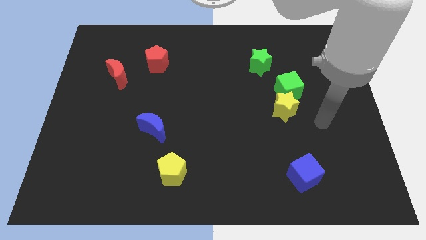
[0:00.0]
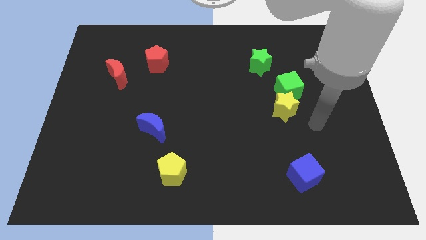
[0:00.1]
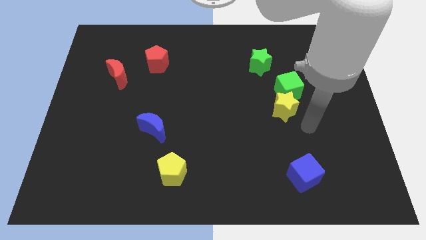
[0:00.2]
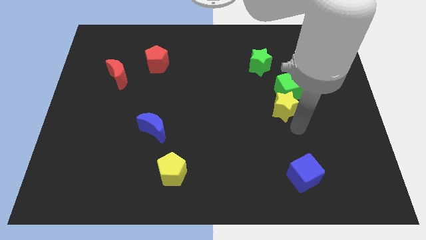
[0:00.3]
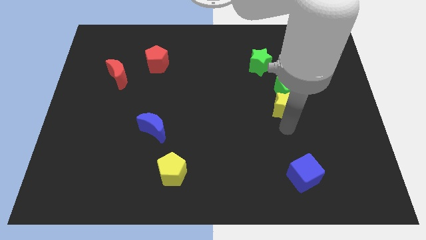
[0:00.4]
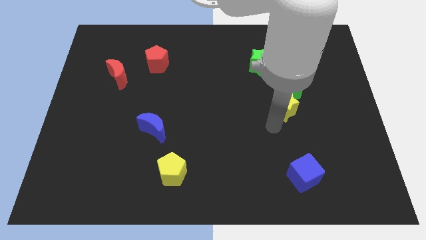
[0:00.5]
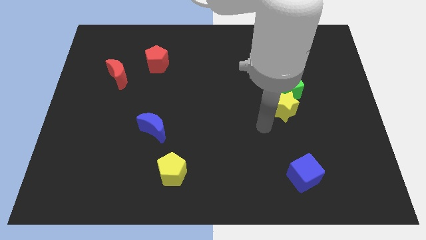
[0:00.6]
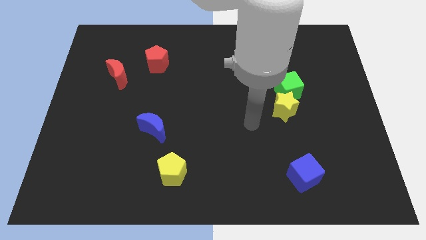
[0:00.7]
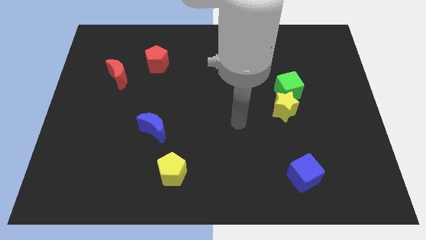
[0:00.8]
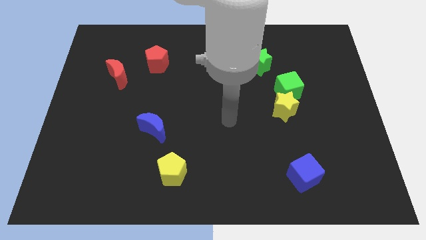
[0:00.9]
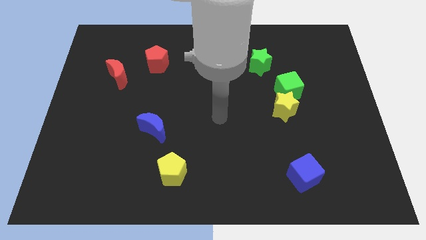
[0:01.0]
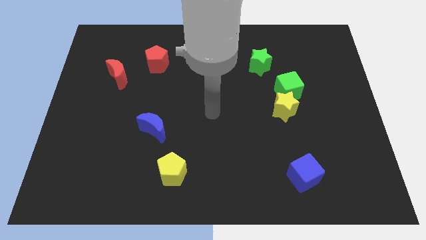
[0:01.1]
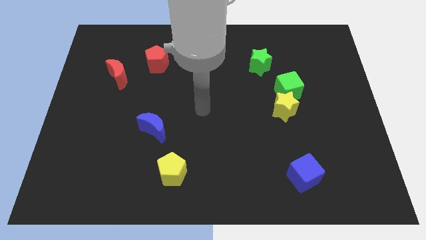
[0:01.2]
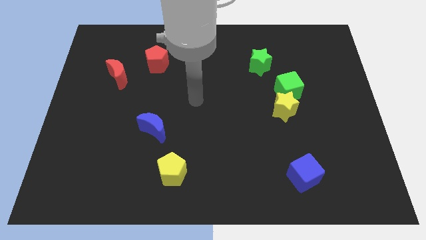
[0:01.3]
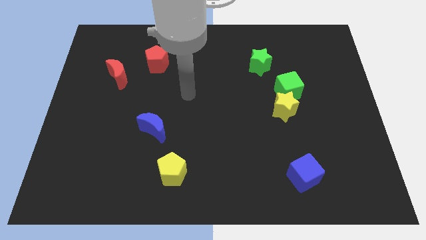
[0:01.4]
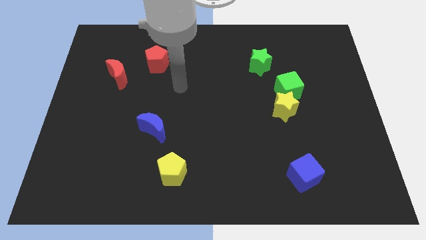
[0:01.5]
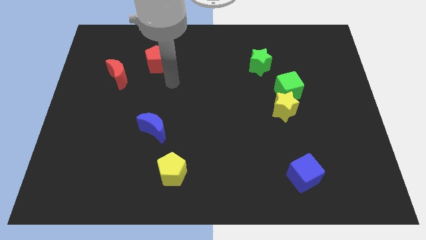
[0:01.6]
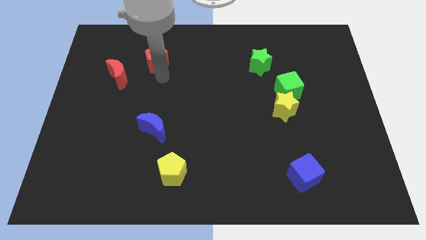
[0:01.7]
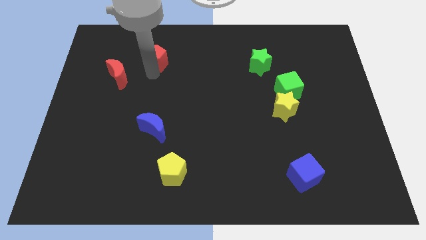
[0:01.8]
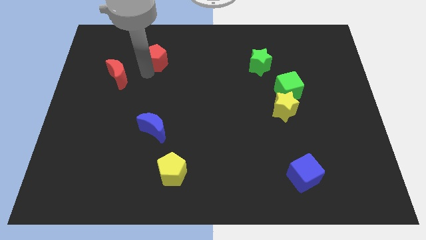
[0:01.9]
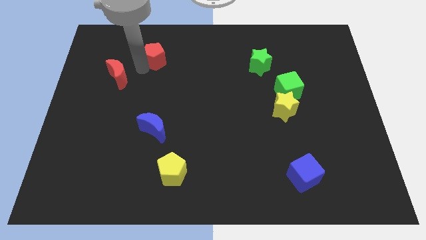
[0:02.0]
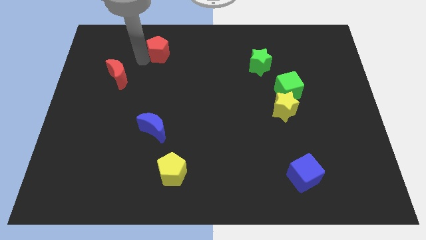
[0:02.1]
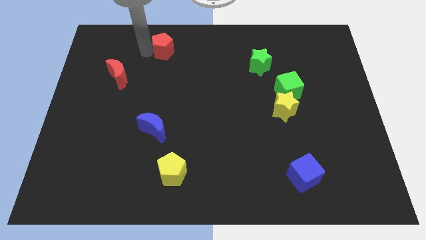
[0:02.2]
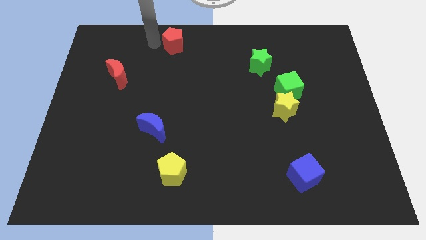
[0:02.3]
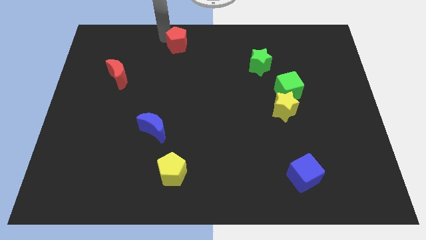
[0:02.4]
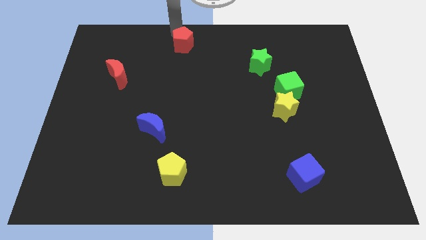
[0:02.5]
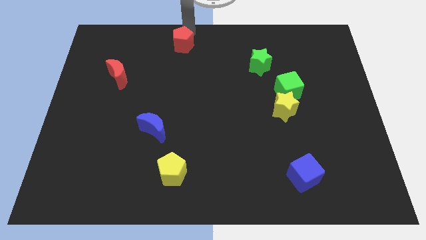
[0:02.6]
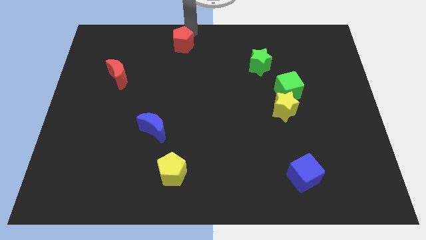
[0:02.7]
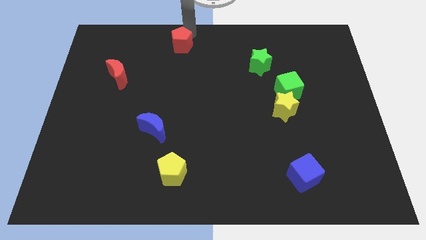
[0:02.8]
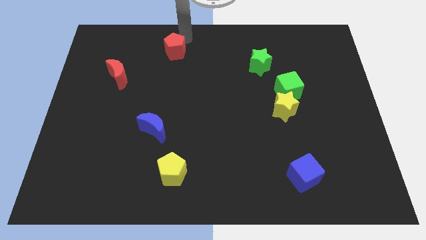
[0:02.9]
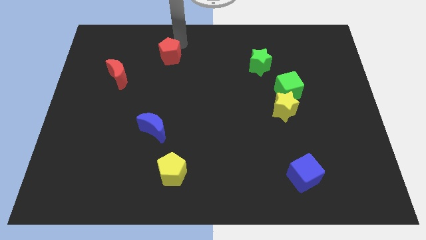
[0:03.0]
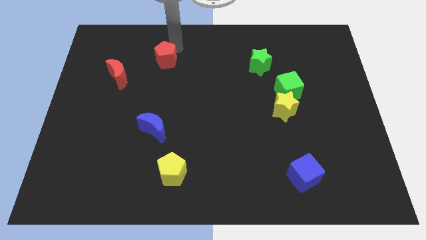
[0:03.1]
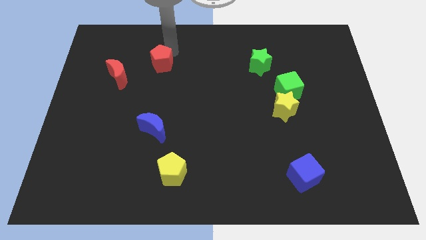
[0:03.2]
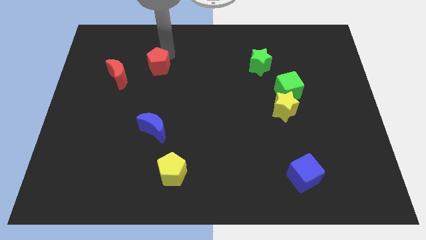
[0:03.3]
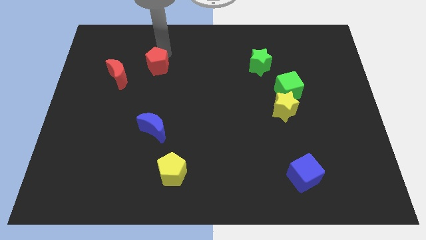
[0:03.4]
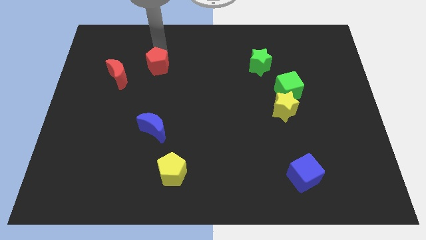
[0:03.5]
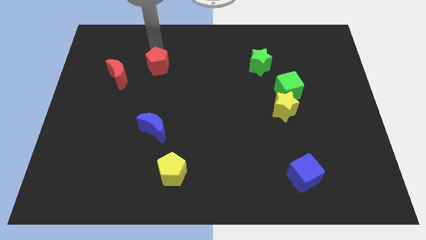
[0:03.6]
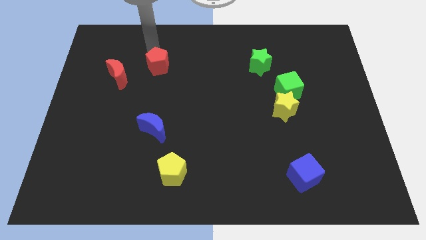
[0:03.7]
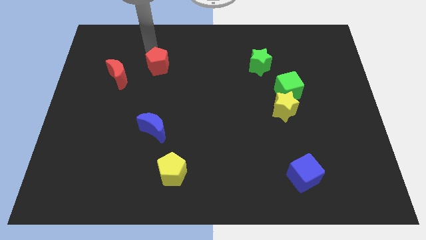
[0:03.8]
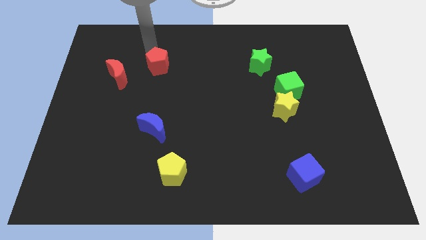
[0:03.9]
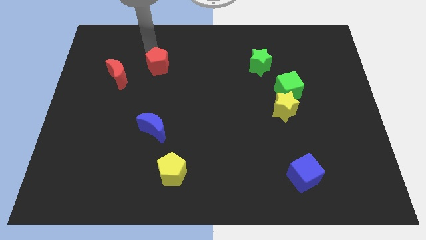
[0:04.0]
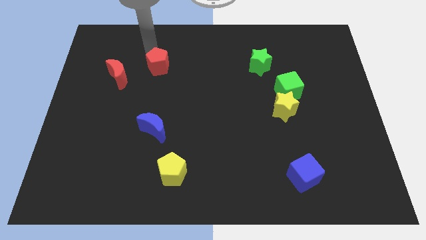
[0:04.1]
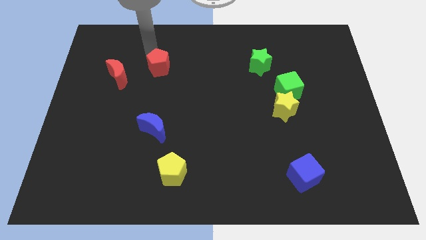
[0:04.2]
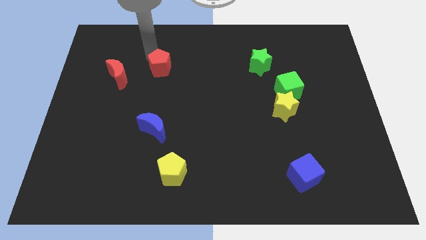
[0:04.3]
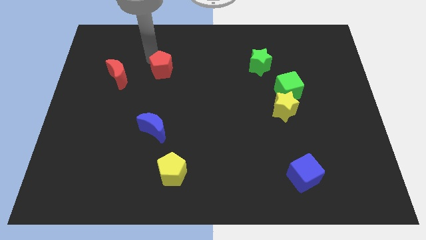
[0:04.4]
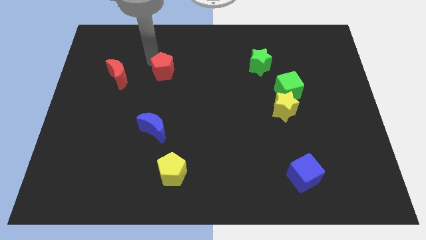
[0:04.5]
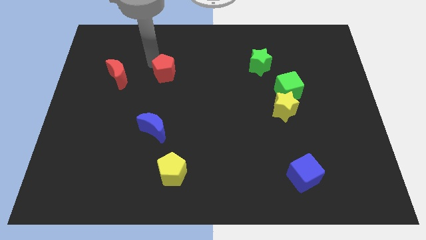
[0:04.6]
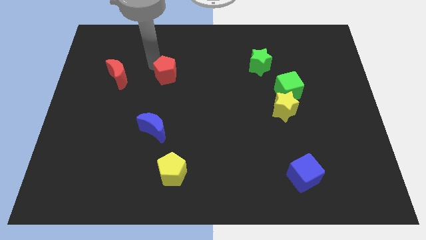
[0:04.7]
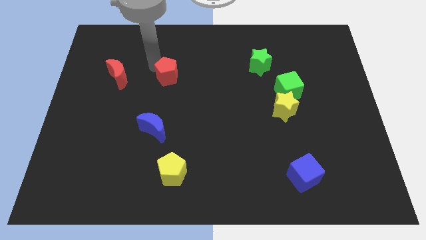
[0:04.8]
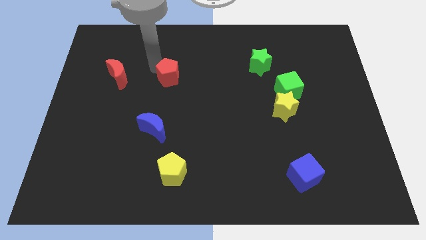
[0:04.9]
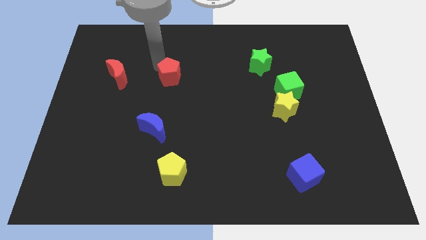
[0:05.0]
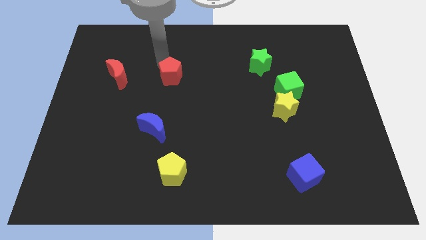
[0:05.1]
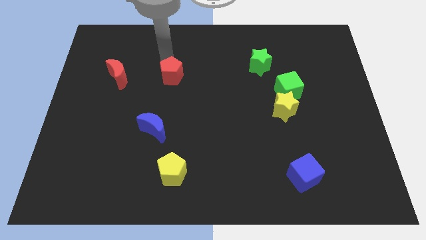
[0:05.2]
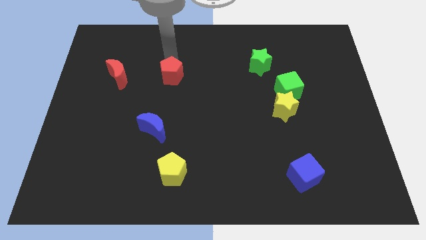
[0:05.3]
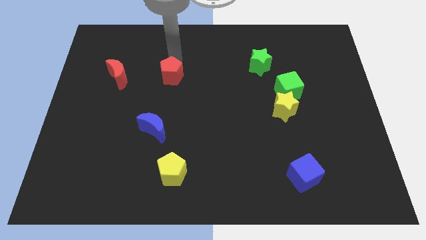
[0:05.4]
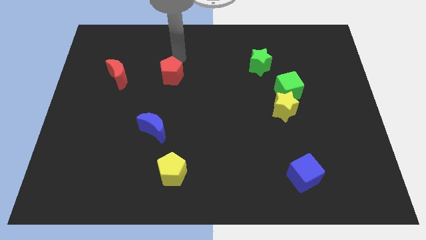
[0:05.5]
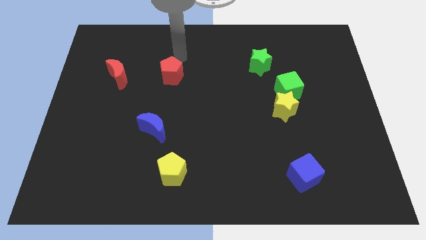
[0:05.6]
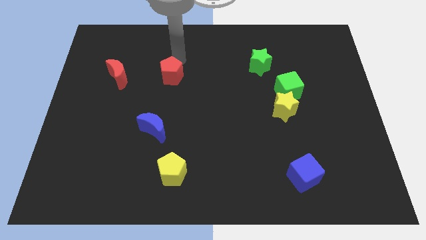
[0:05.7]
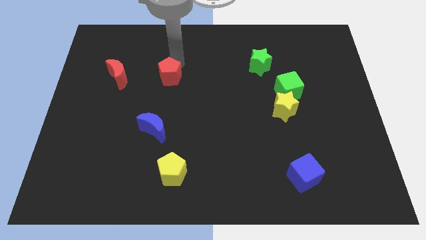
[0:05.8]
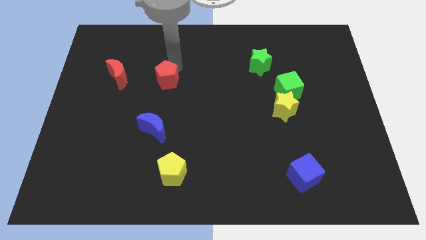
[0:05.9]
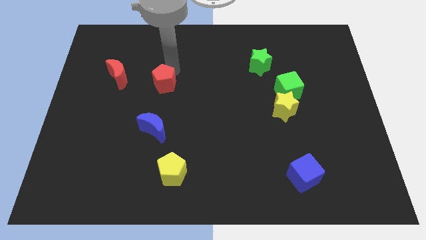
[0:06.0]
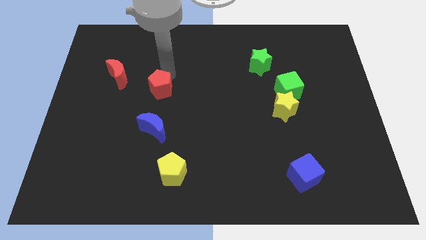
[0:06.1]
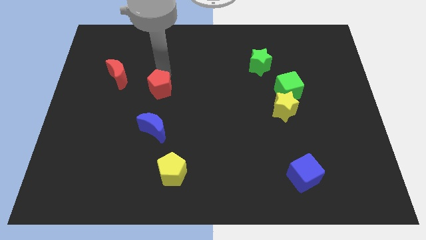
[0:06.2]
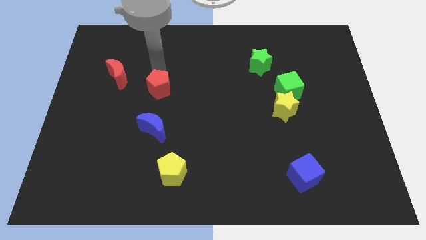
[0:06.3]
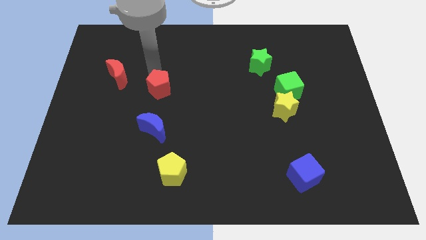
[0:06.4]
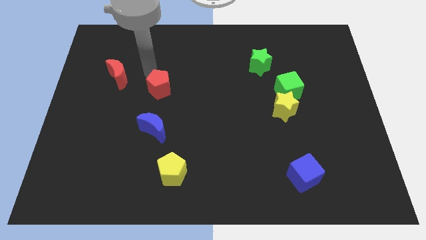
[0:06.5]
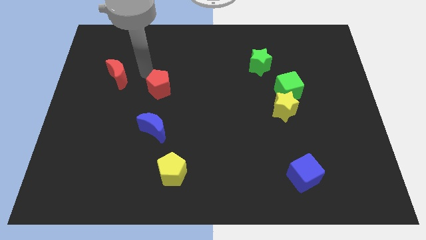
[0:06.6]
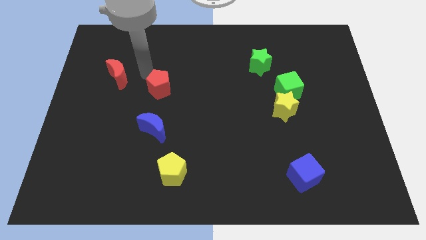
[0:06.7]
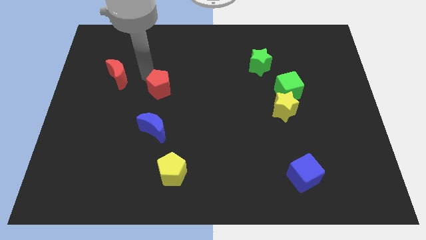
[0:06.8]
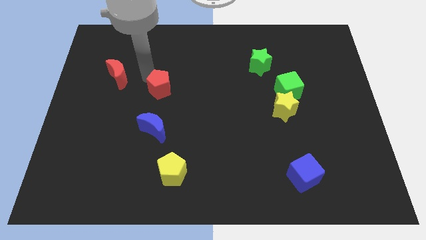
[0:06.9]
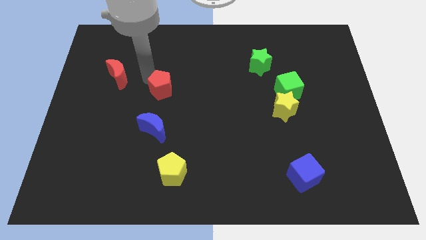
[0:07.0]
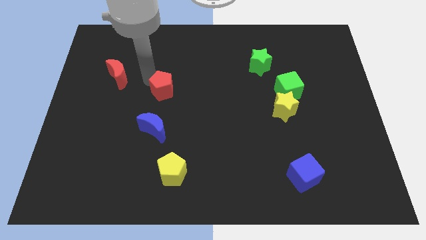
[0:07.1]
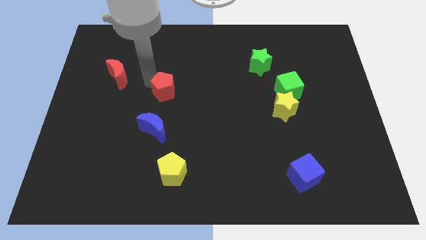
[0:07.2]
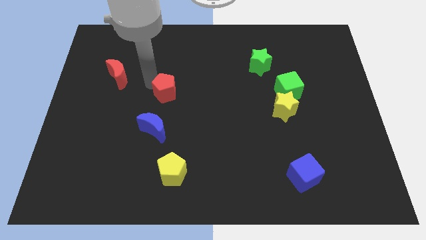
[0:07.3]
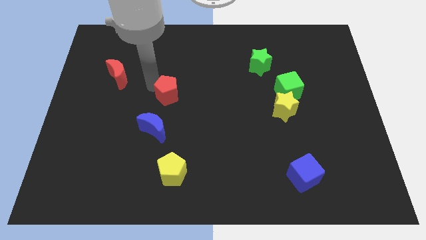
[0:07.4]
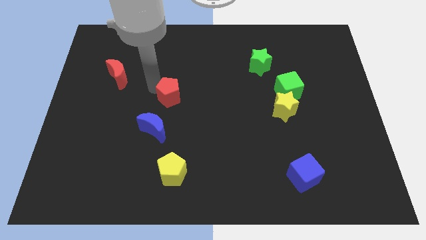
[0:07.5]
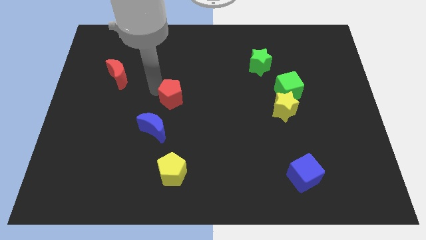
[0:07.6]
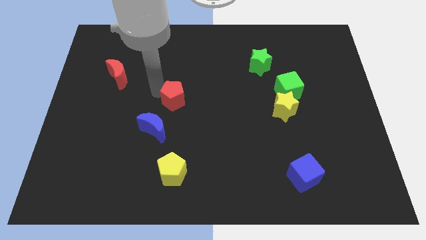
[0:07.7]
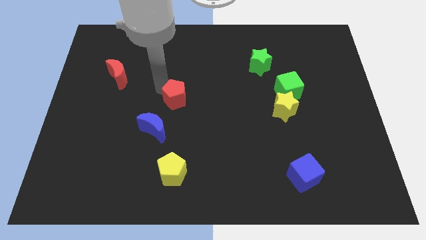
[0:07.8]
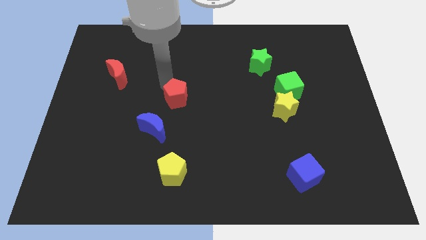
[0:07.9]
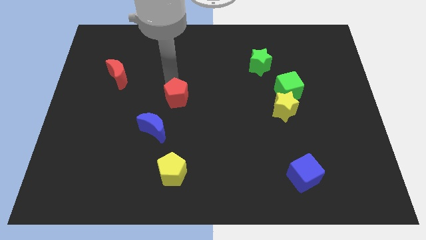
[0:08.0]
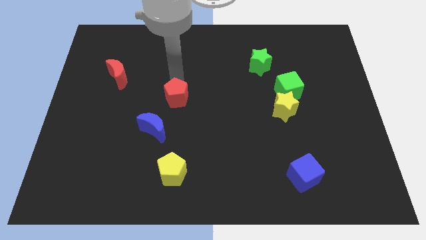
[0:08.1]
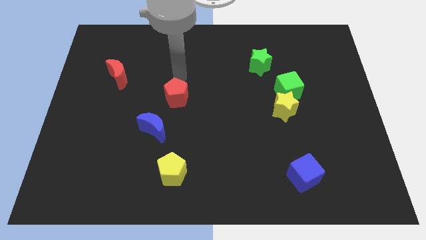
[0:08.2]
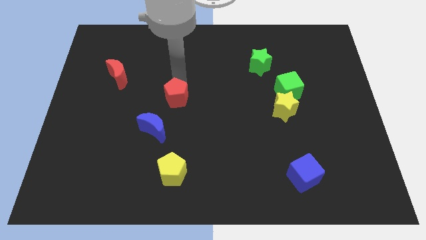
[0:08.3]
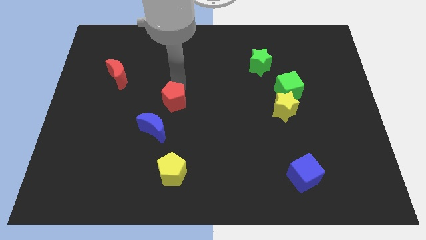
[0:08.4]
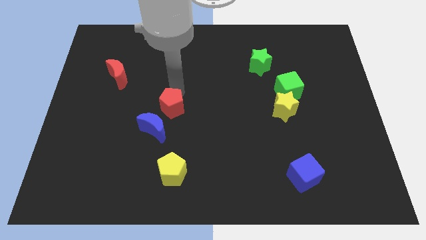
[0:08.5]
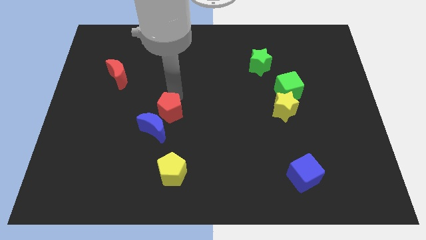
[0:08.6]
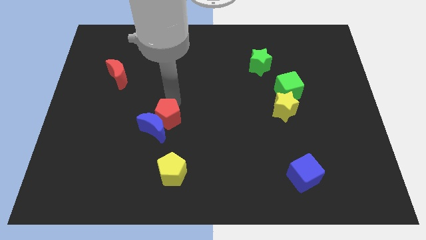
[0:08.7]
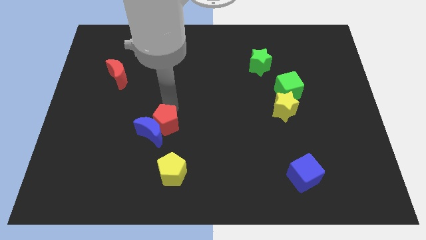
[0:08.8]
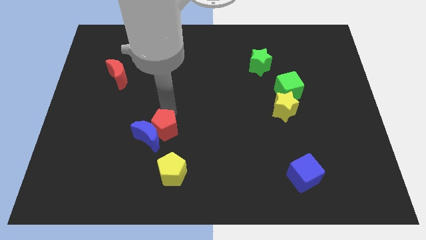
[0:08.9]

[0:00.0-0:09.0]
slide the red pentagon downwards
